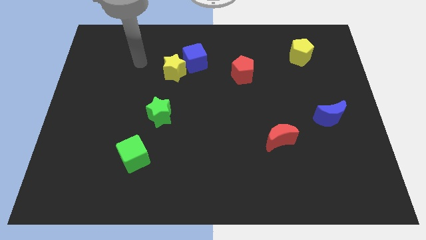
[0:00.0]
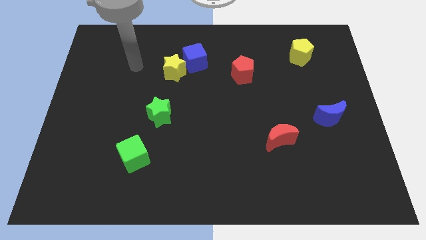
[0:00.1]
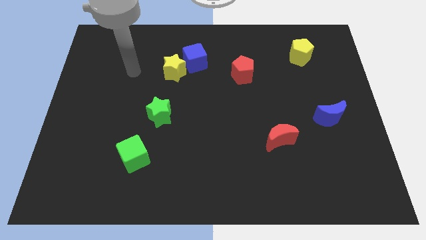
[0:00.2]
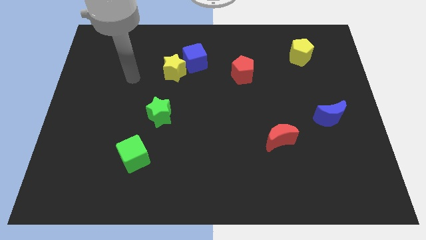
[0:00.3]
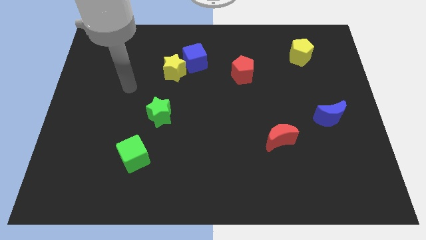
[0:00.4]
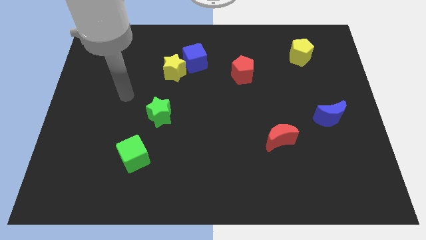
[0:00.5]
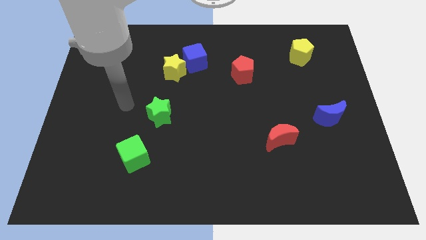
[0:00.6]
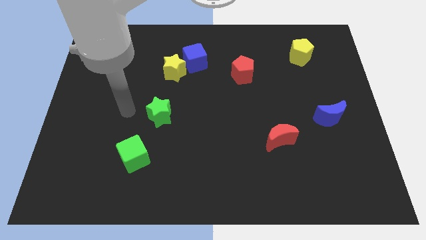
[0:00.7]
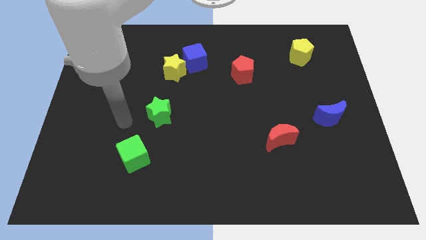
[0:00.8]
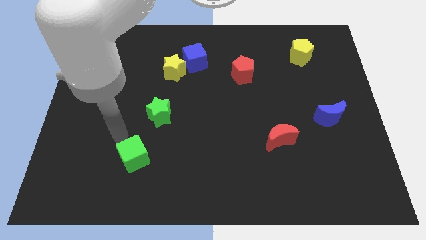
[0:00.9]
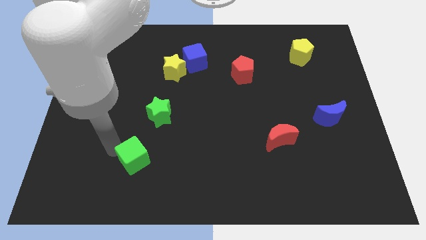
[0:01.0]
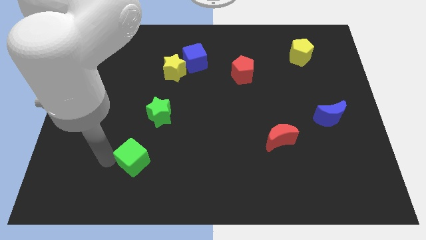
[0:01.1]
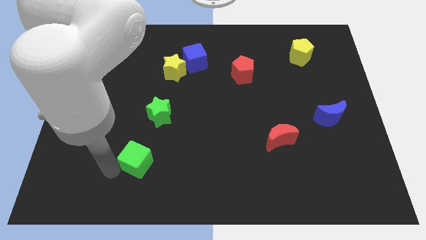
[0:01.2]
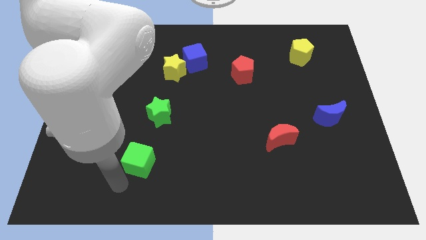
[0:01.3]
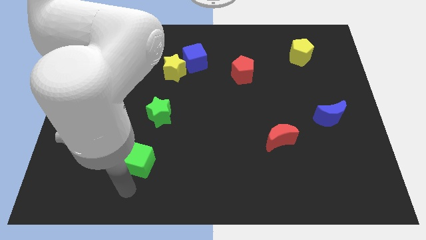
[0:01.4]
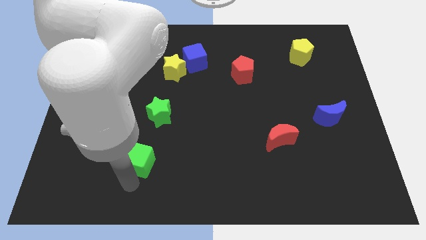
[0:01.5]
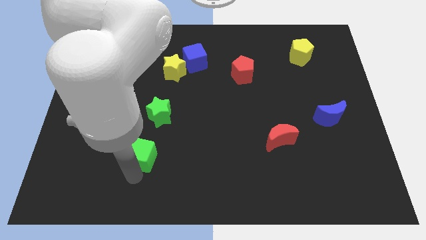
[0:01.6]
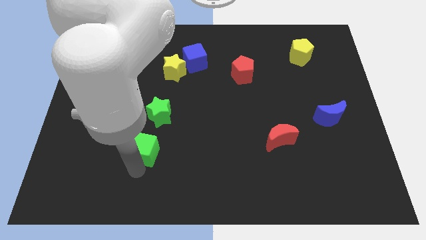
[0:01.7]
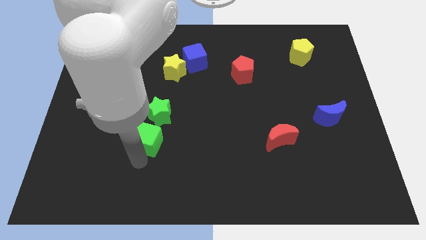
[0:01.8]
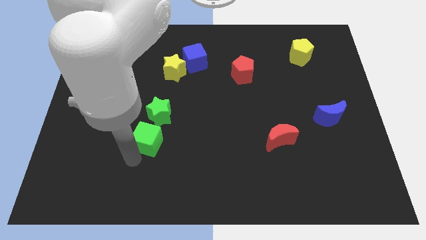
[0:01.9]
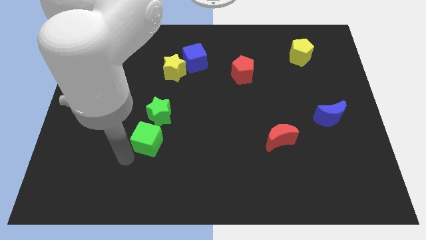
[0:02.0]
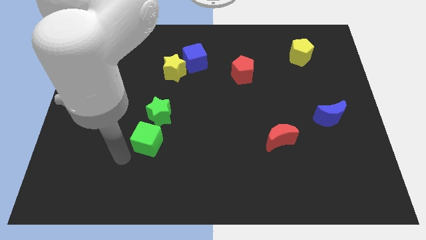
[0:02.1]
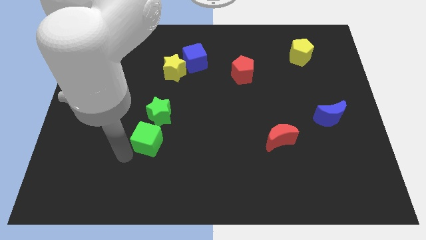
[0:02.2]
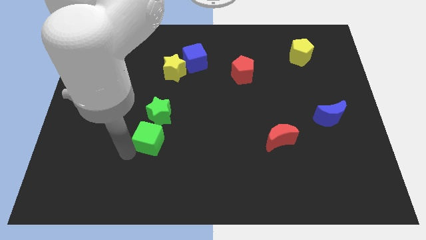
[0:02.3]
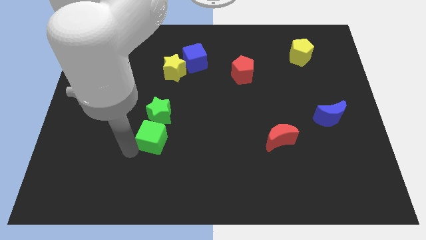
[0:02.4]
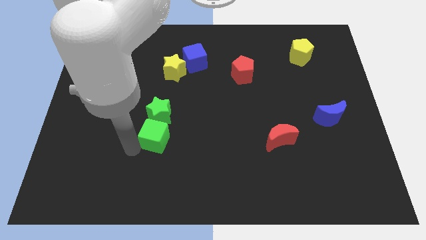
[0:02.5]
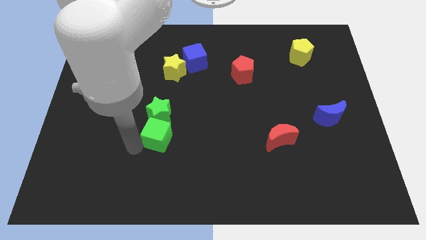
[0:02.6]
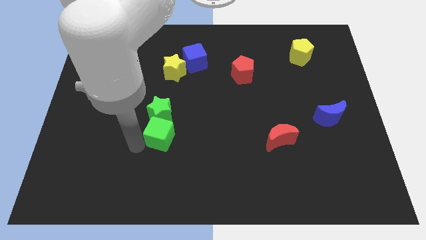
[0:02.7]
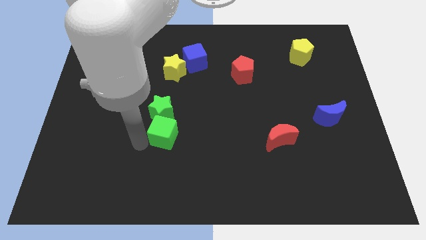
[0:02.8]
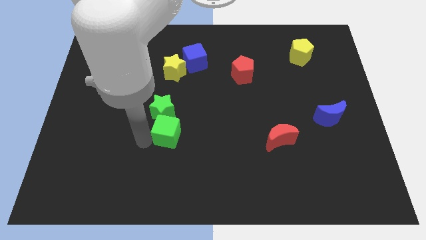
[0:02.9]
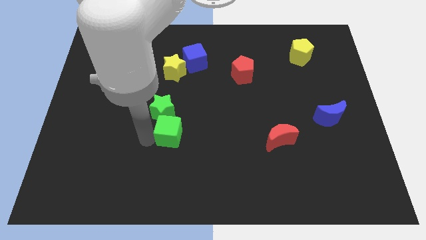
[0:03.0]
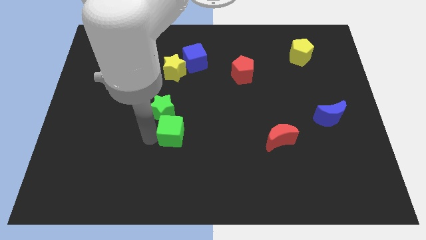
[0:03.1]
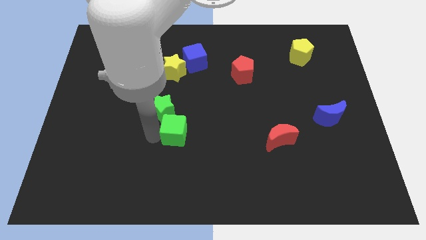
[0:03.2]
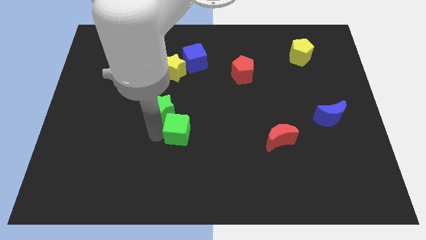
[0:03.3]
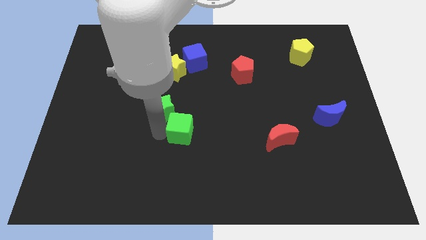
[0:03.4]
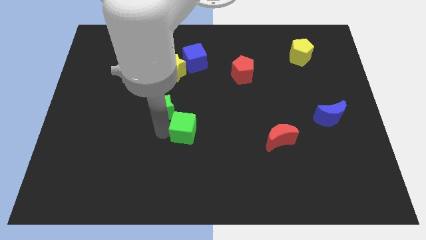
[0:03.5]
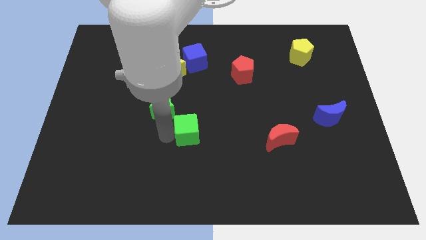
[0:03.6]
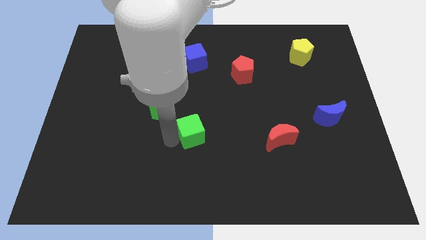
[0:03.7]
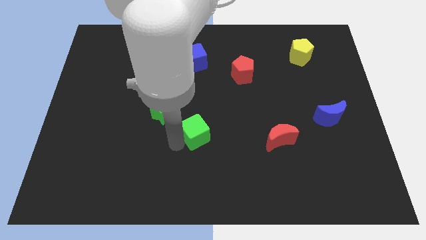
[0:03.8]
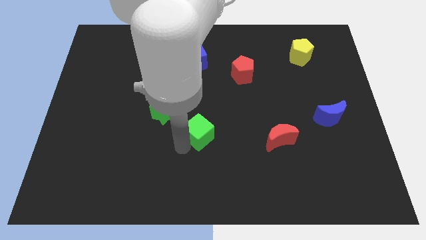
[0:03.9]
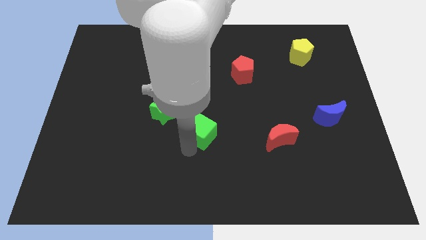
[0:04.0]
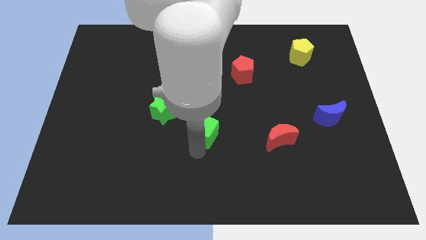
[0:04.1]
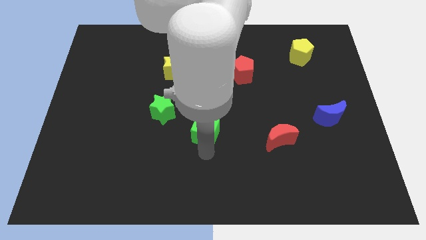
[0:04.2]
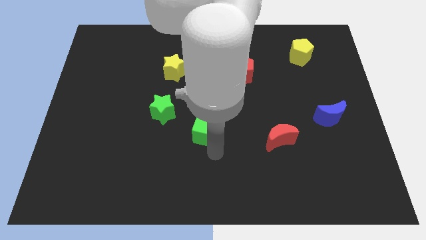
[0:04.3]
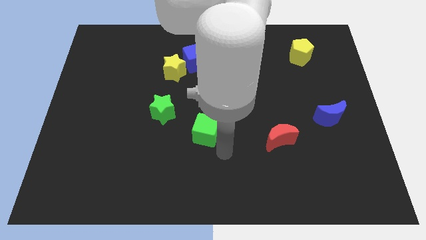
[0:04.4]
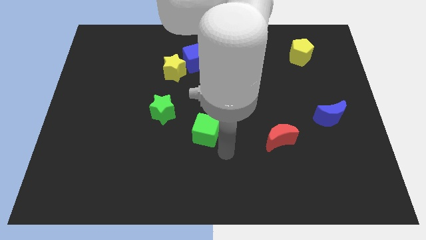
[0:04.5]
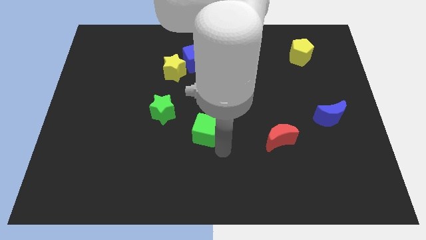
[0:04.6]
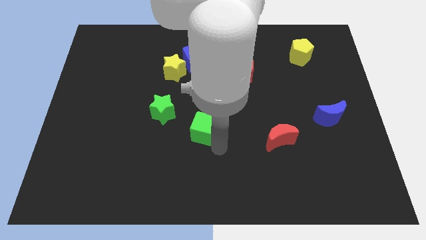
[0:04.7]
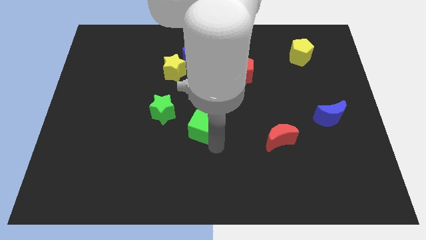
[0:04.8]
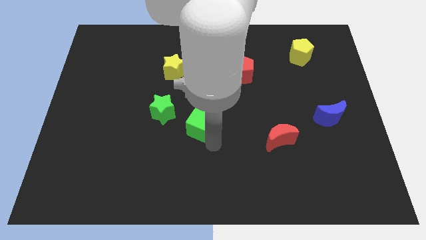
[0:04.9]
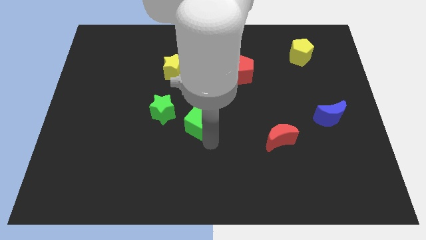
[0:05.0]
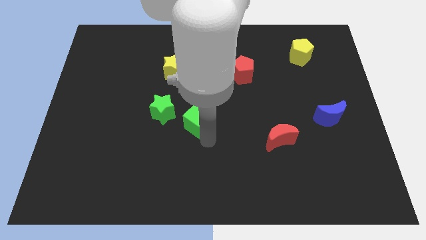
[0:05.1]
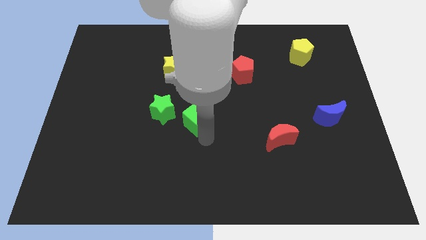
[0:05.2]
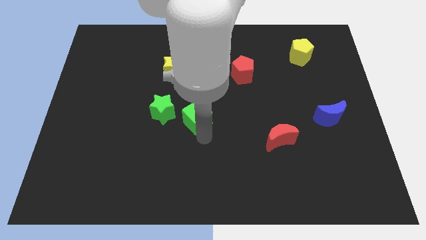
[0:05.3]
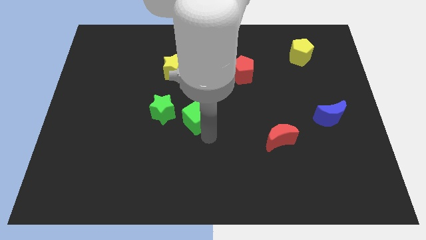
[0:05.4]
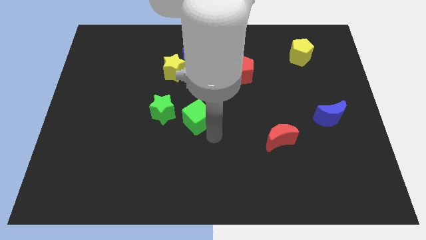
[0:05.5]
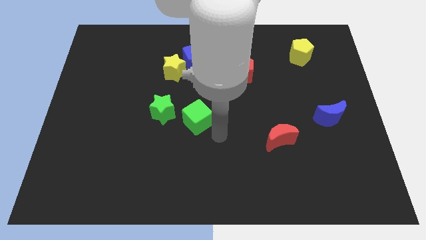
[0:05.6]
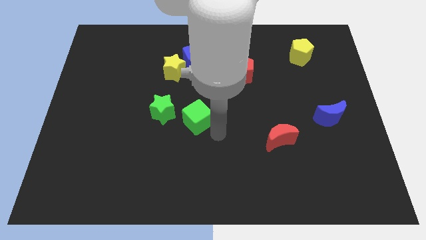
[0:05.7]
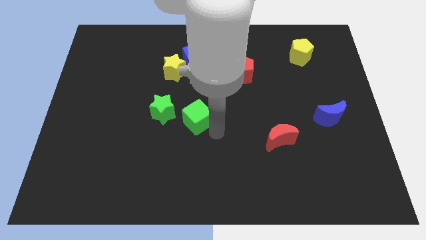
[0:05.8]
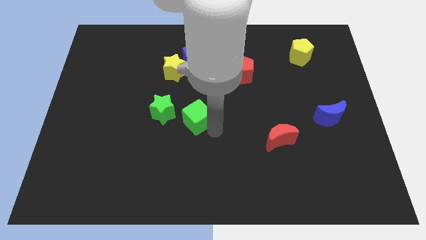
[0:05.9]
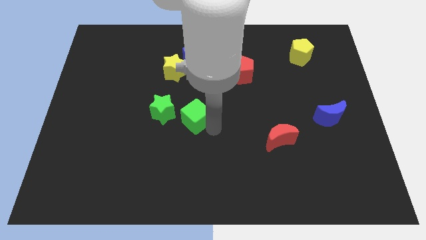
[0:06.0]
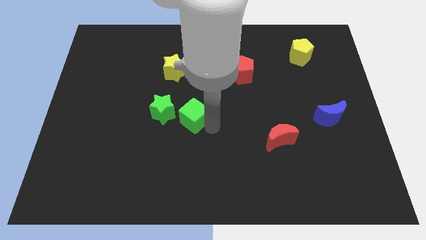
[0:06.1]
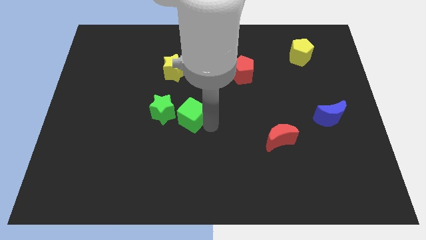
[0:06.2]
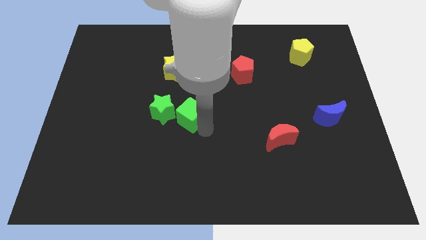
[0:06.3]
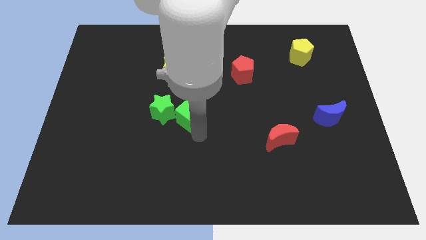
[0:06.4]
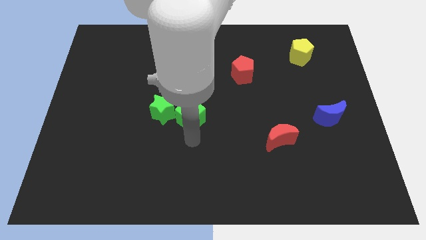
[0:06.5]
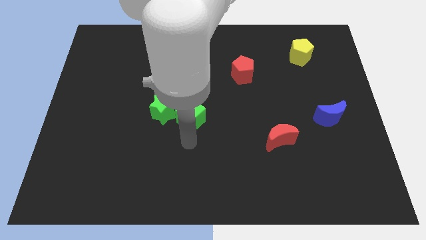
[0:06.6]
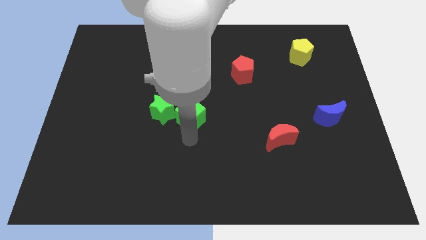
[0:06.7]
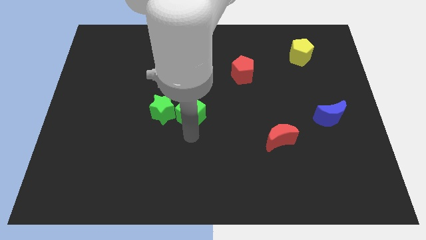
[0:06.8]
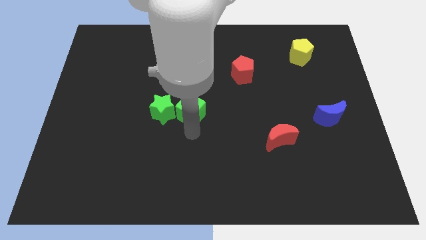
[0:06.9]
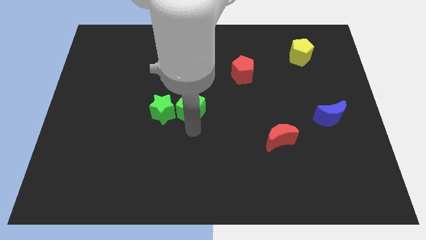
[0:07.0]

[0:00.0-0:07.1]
move the green cube to the bottom side of the blue cube

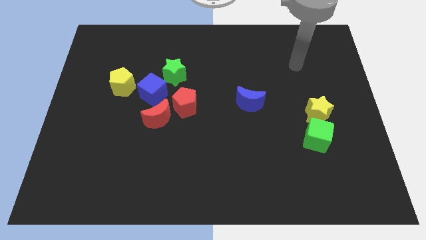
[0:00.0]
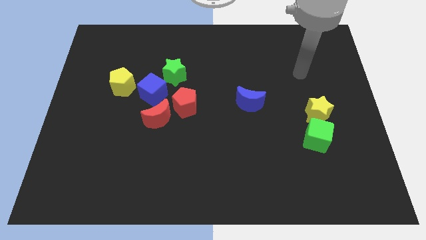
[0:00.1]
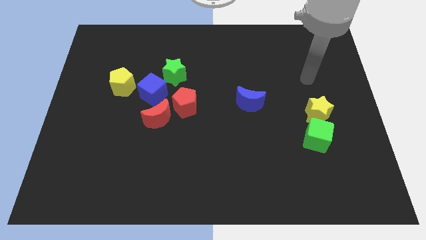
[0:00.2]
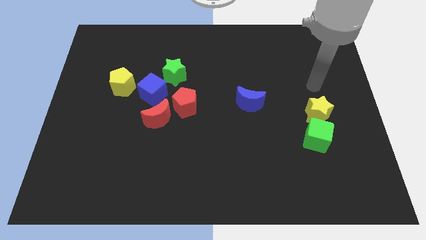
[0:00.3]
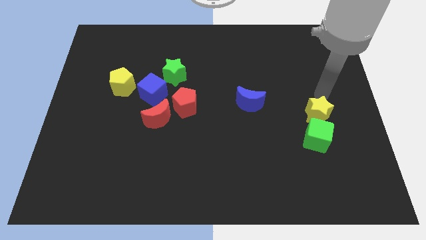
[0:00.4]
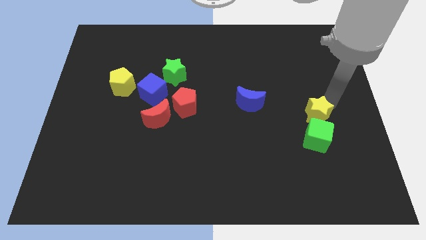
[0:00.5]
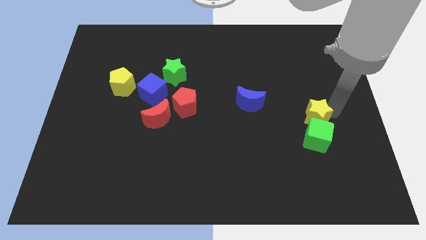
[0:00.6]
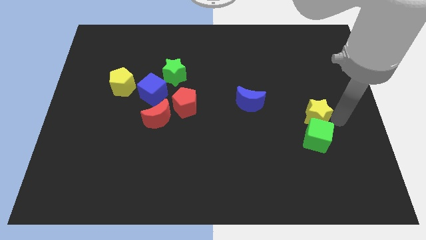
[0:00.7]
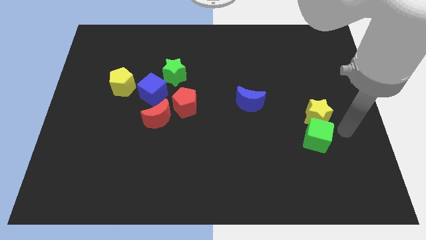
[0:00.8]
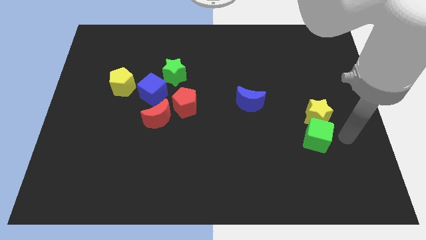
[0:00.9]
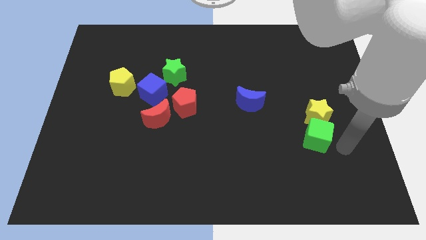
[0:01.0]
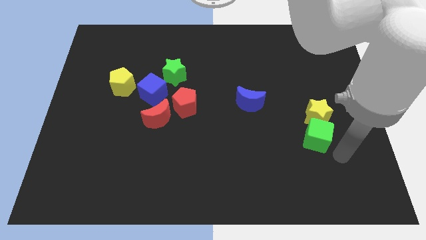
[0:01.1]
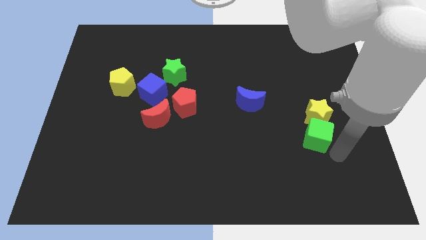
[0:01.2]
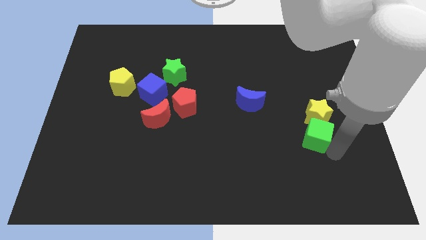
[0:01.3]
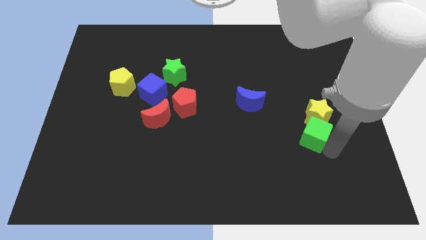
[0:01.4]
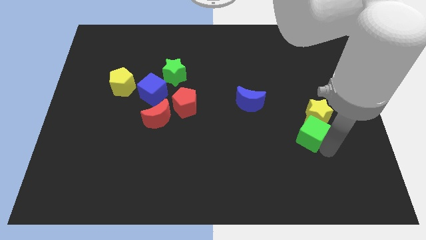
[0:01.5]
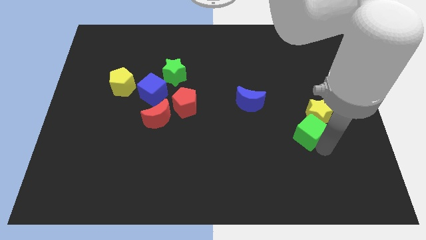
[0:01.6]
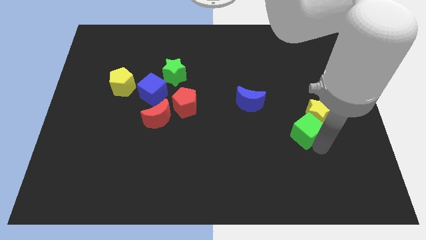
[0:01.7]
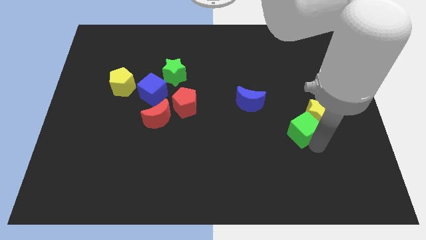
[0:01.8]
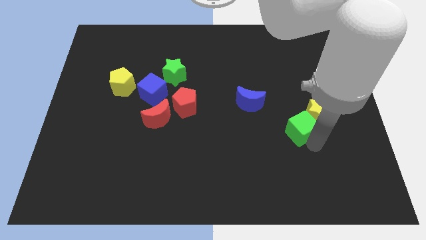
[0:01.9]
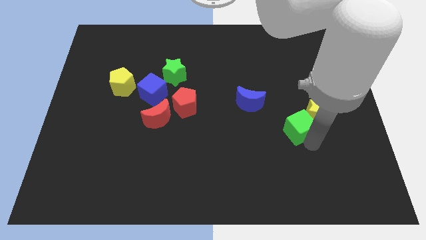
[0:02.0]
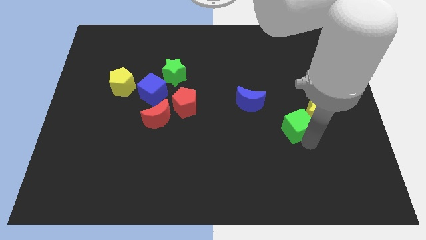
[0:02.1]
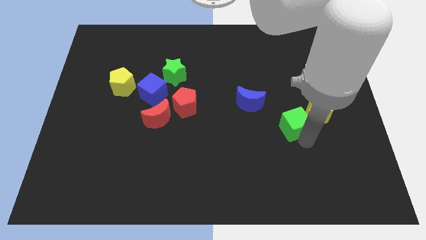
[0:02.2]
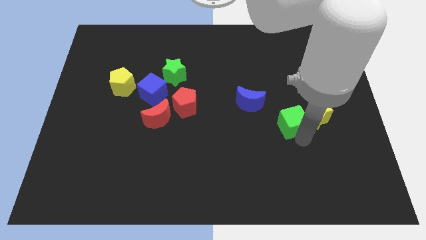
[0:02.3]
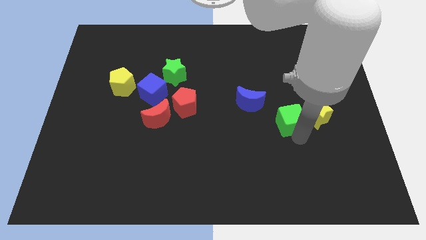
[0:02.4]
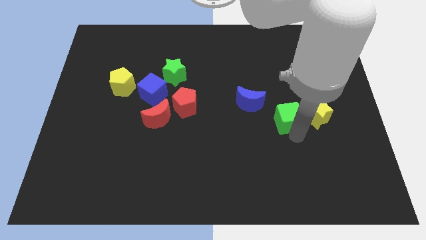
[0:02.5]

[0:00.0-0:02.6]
move the green cube just right of the blue moon
